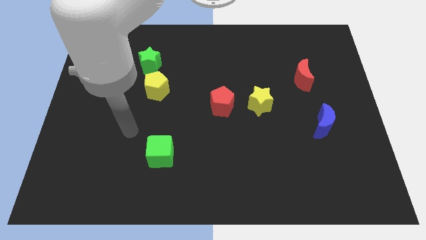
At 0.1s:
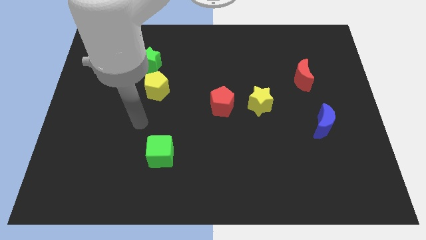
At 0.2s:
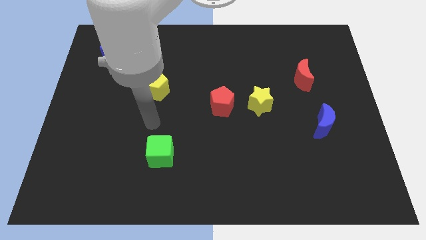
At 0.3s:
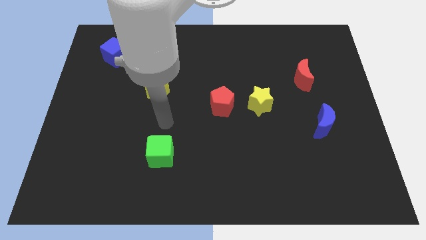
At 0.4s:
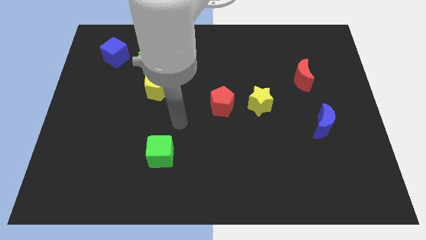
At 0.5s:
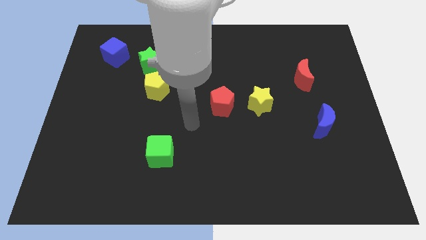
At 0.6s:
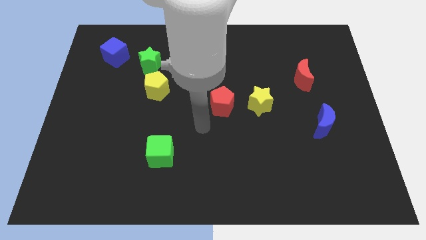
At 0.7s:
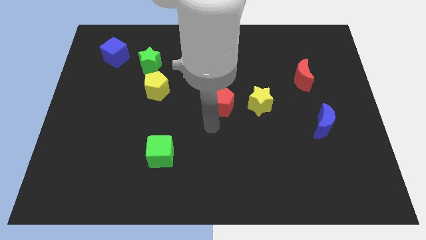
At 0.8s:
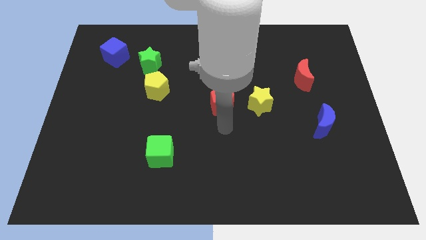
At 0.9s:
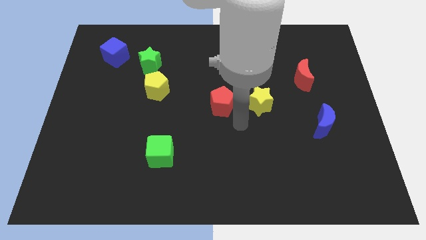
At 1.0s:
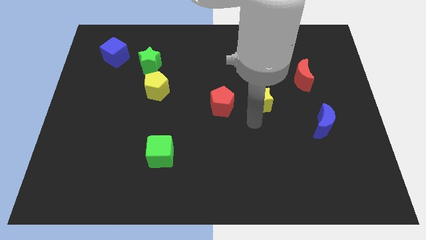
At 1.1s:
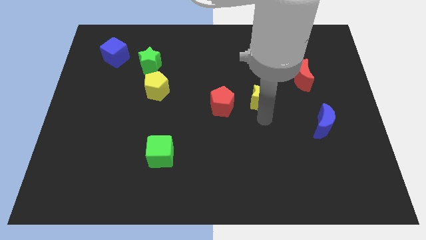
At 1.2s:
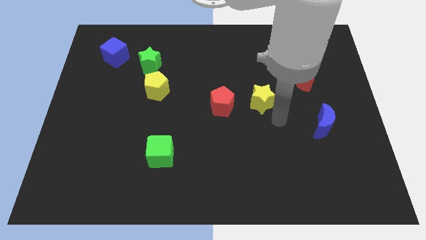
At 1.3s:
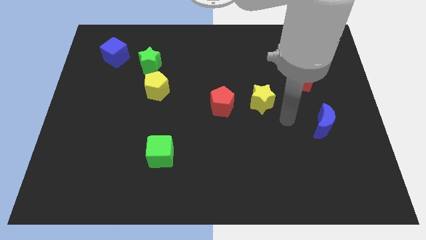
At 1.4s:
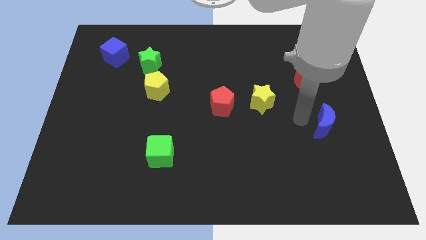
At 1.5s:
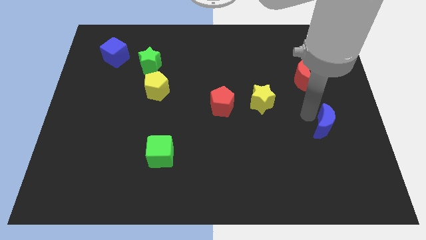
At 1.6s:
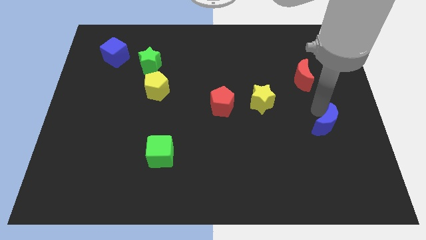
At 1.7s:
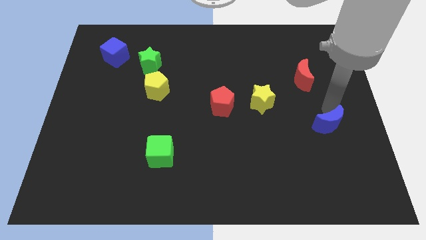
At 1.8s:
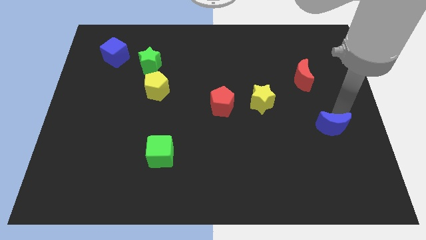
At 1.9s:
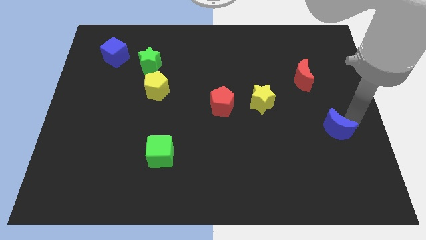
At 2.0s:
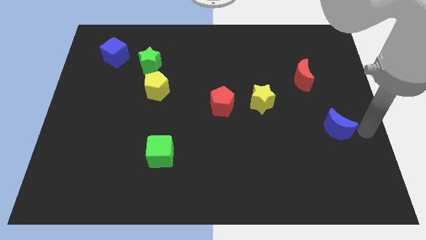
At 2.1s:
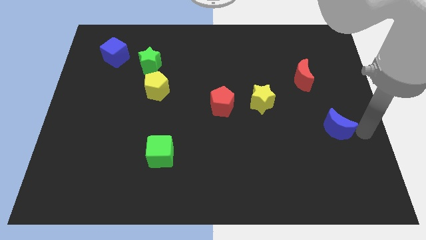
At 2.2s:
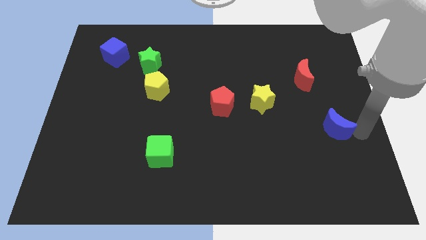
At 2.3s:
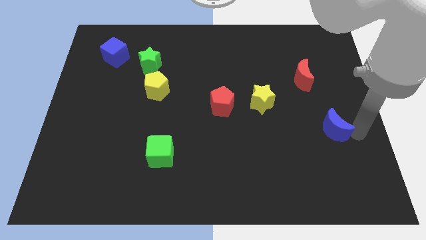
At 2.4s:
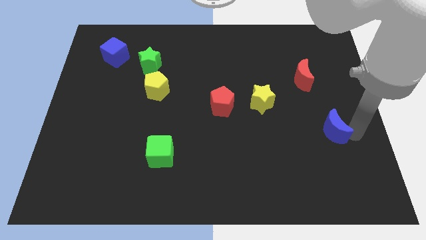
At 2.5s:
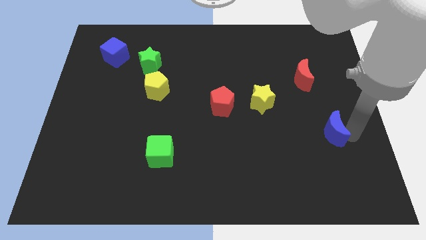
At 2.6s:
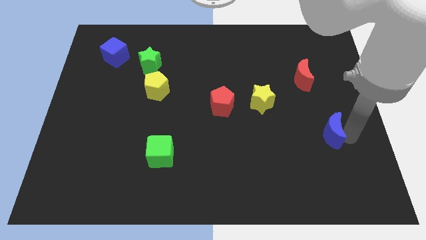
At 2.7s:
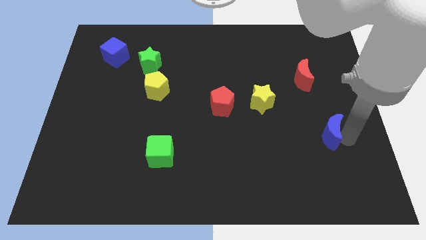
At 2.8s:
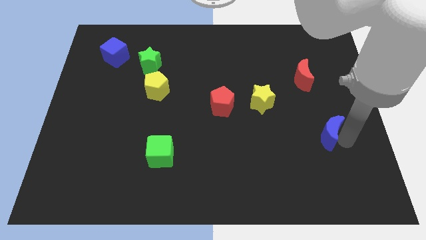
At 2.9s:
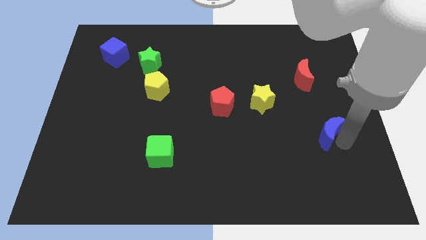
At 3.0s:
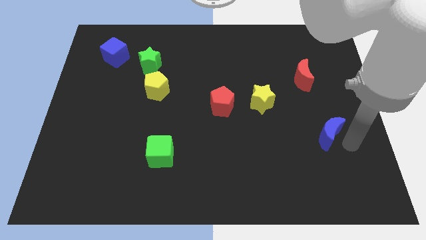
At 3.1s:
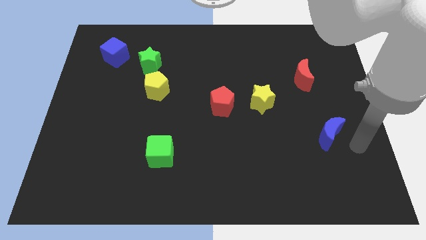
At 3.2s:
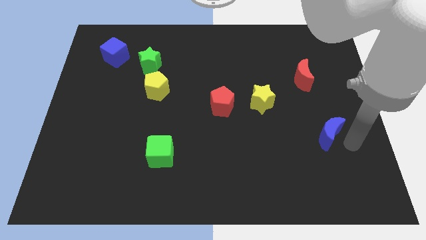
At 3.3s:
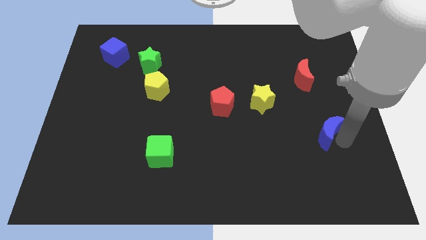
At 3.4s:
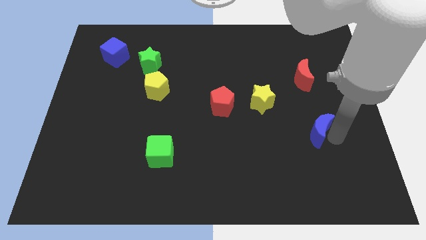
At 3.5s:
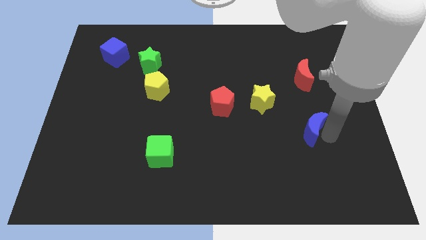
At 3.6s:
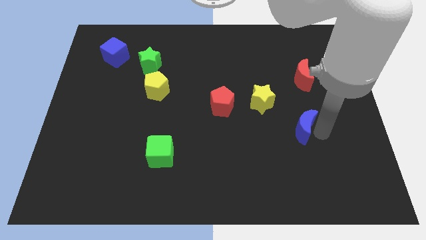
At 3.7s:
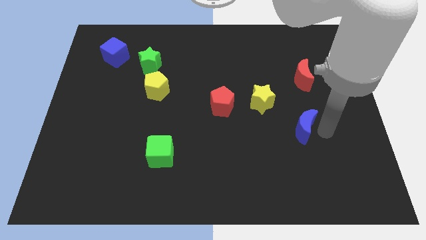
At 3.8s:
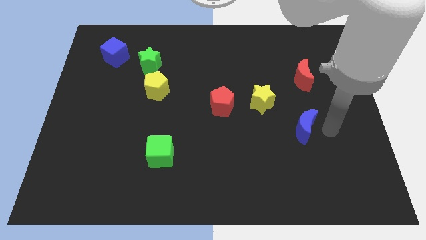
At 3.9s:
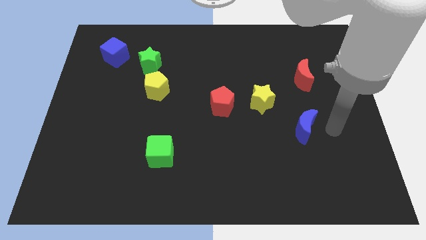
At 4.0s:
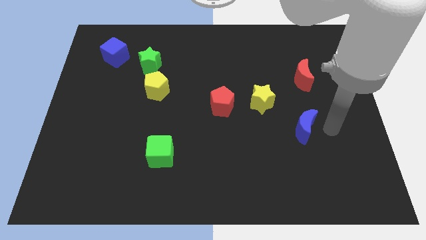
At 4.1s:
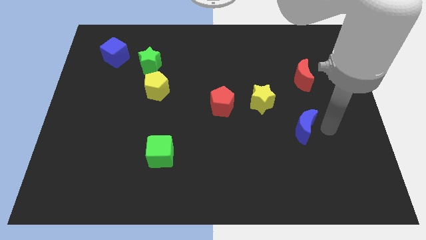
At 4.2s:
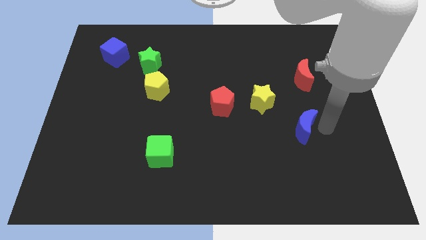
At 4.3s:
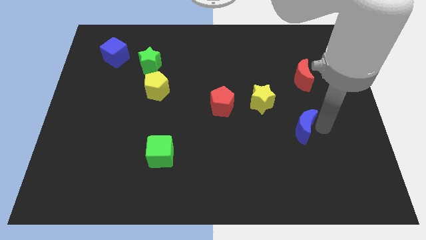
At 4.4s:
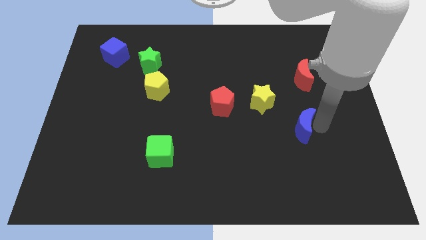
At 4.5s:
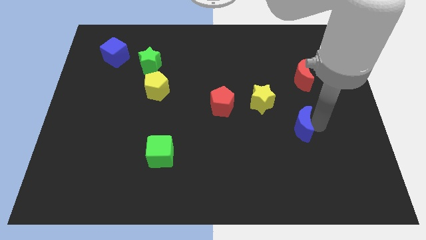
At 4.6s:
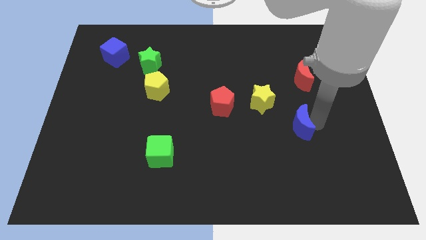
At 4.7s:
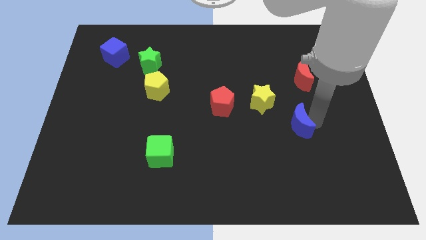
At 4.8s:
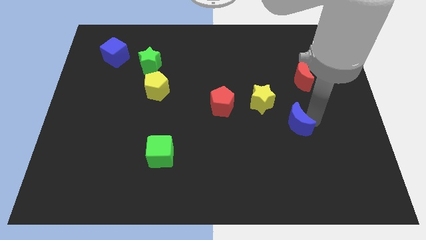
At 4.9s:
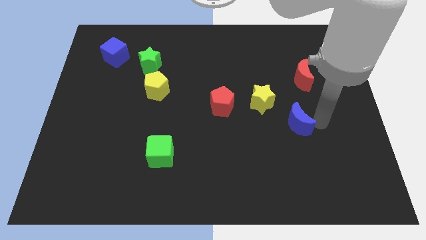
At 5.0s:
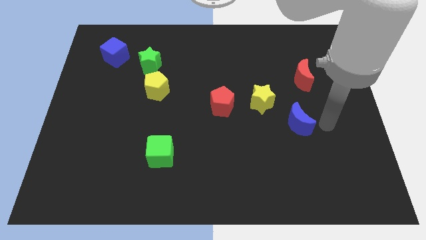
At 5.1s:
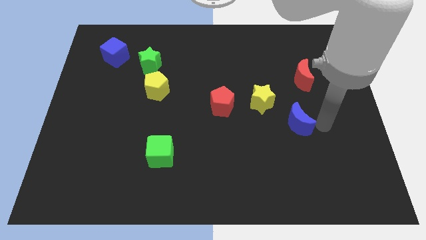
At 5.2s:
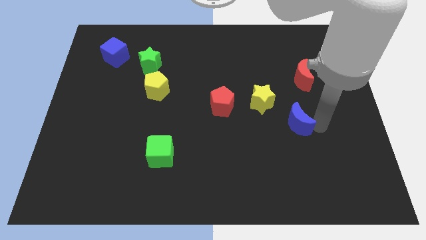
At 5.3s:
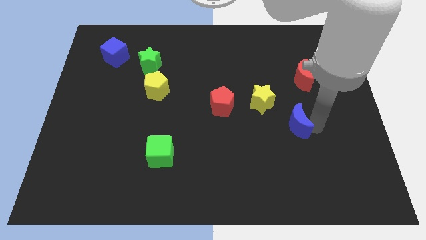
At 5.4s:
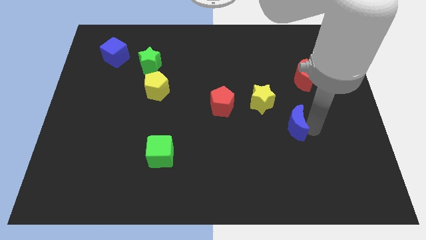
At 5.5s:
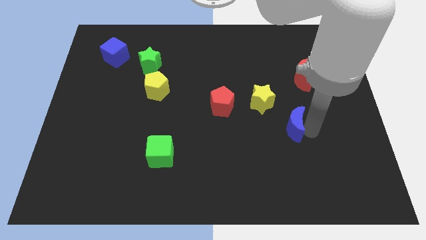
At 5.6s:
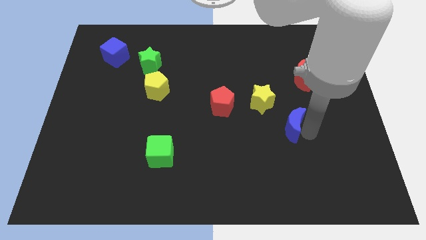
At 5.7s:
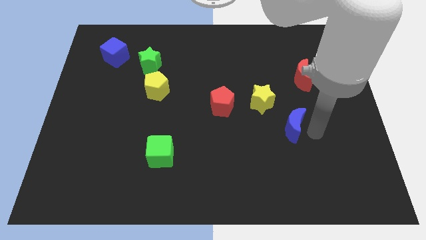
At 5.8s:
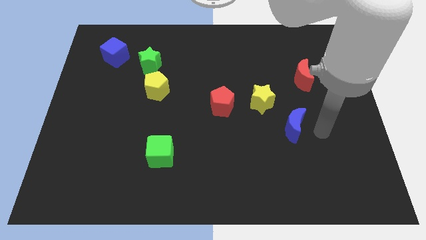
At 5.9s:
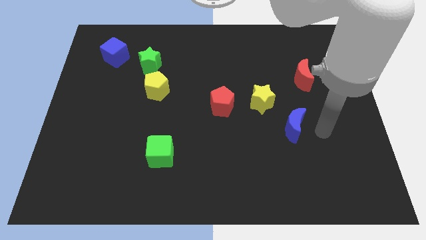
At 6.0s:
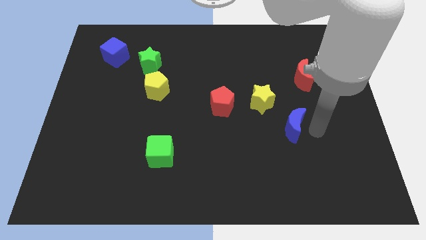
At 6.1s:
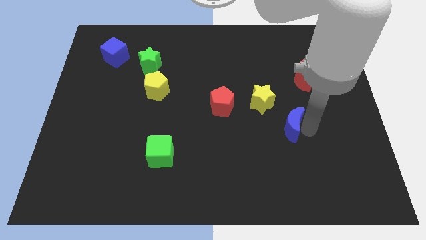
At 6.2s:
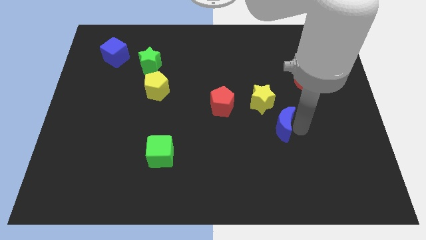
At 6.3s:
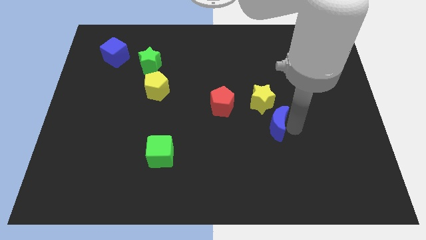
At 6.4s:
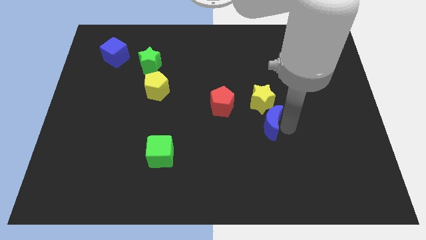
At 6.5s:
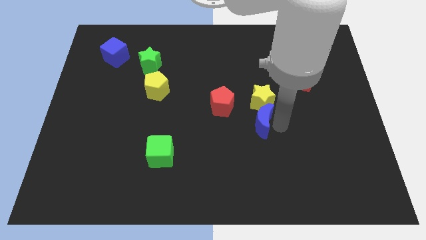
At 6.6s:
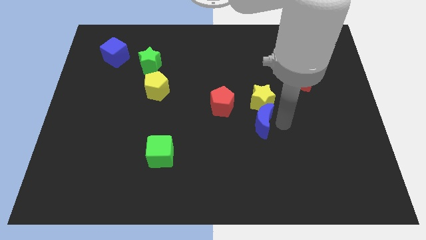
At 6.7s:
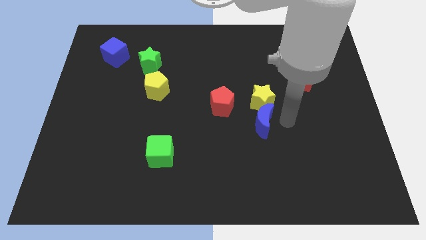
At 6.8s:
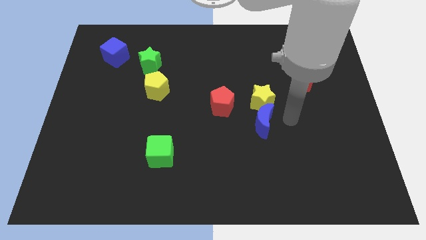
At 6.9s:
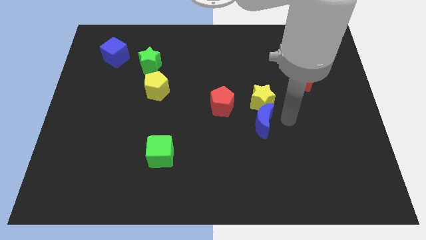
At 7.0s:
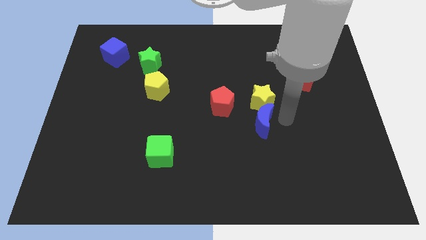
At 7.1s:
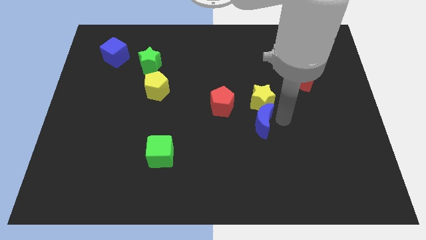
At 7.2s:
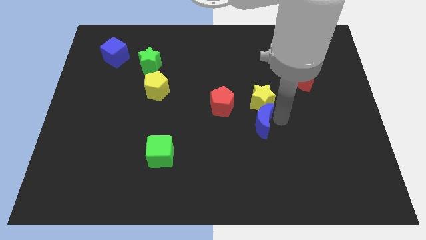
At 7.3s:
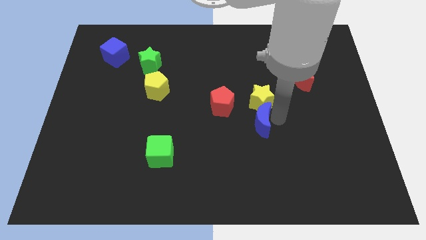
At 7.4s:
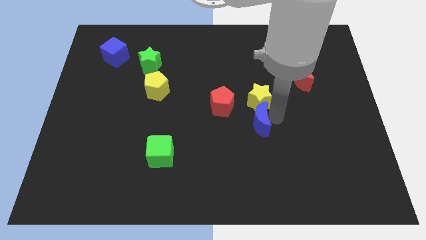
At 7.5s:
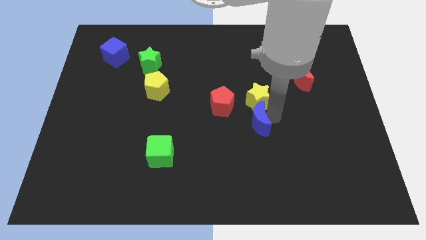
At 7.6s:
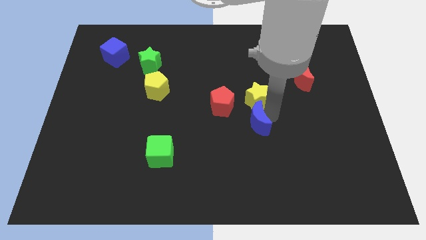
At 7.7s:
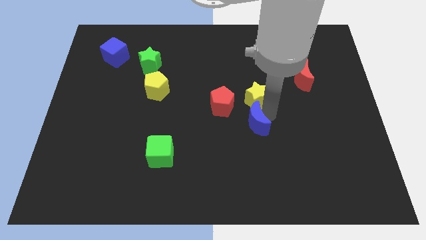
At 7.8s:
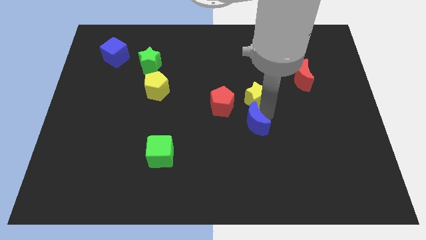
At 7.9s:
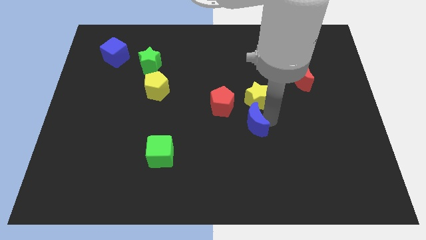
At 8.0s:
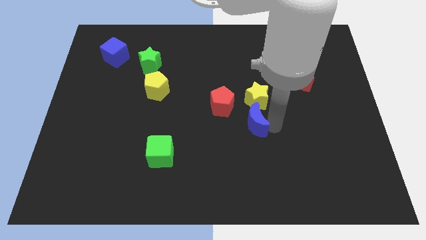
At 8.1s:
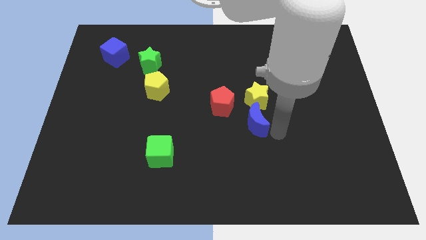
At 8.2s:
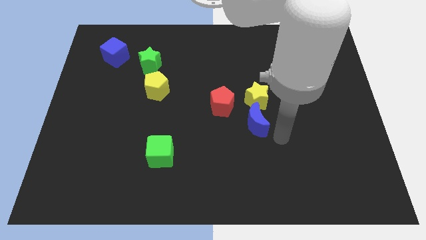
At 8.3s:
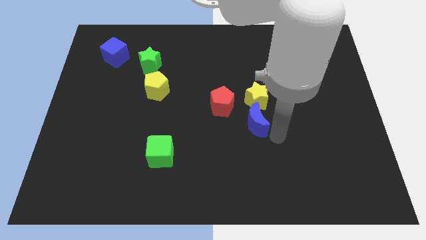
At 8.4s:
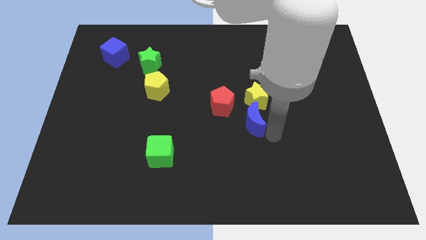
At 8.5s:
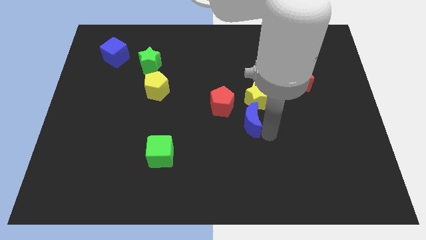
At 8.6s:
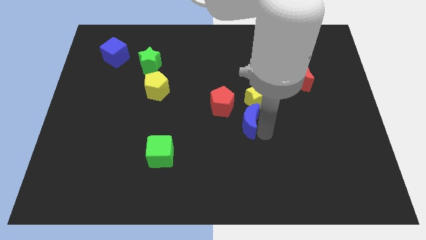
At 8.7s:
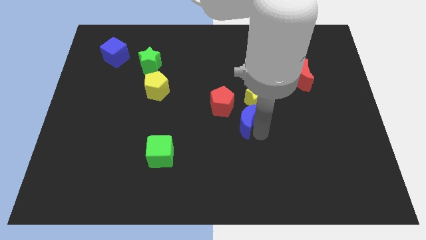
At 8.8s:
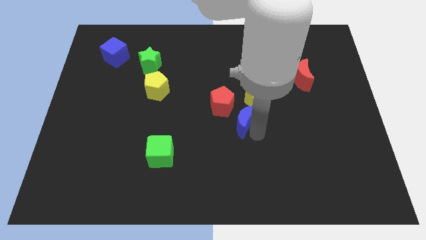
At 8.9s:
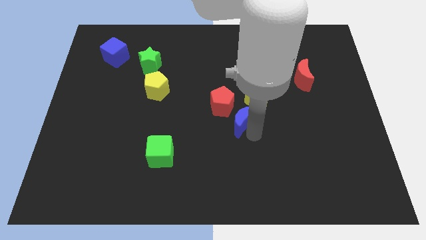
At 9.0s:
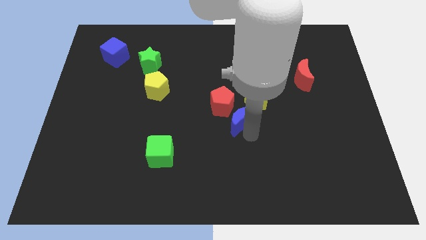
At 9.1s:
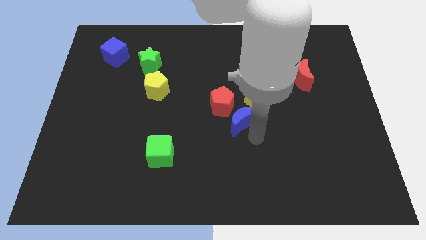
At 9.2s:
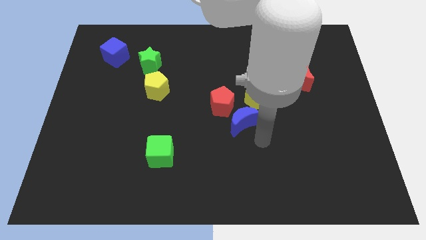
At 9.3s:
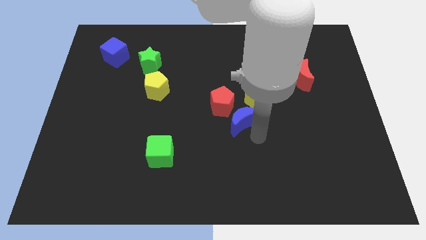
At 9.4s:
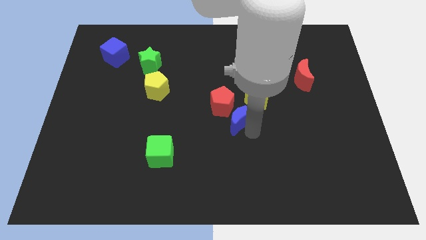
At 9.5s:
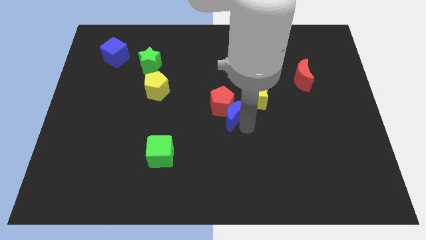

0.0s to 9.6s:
push the blue moon next to the red pentagon
